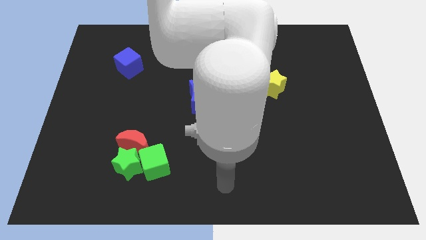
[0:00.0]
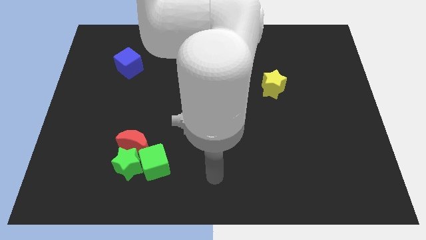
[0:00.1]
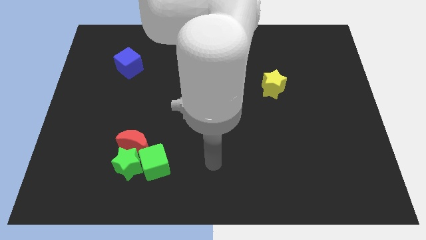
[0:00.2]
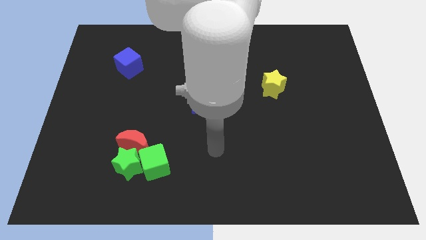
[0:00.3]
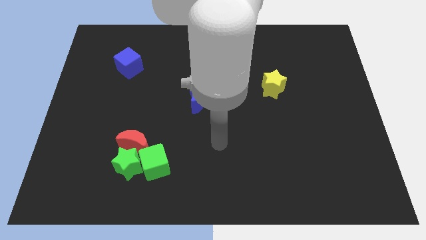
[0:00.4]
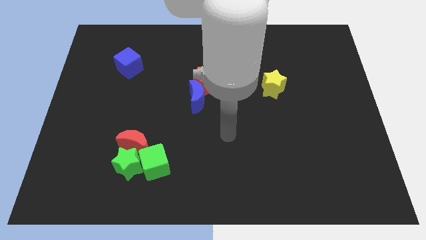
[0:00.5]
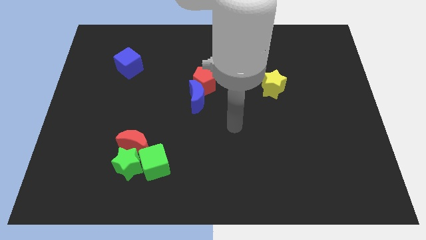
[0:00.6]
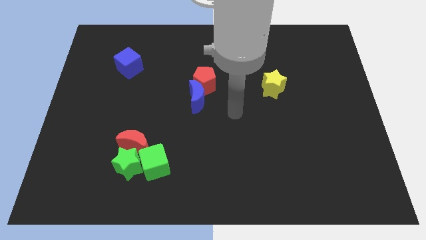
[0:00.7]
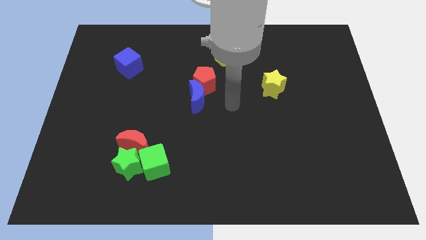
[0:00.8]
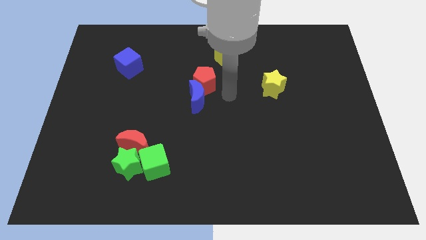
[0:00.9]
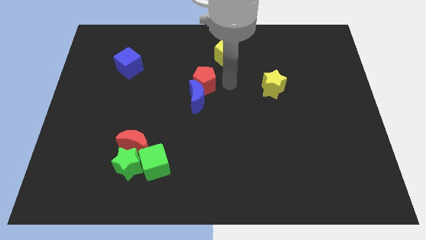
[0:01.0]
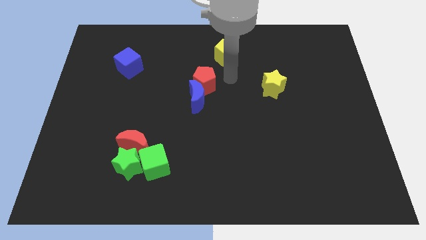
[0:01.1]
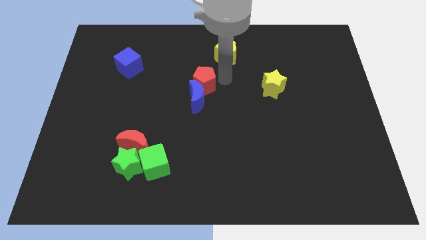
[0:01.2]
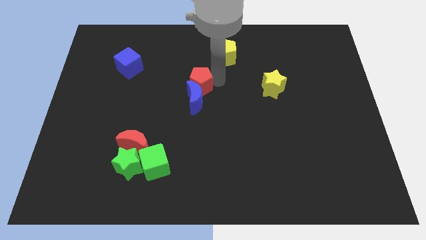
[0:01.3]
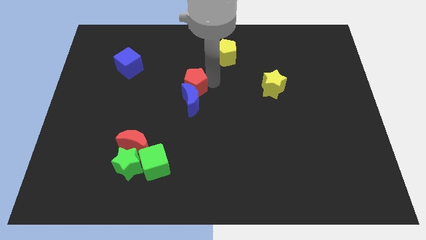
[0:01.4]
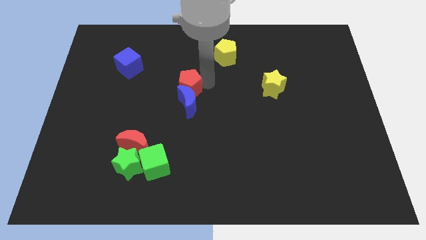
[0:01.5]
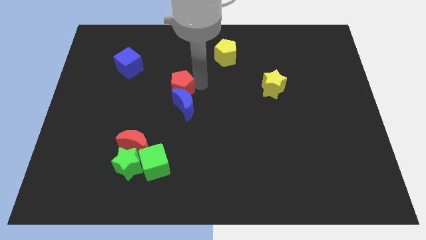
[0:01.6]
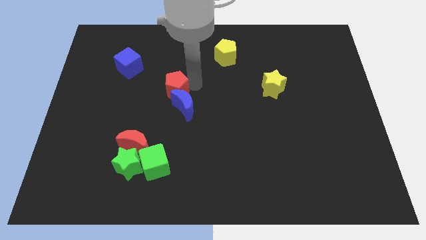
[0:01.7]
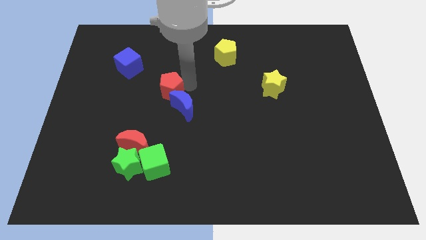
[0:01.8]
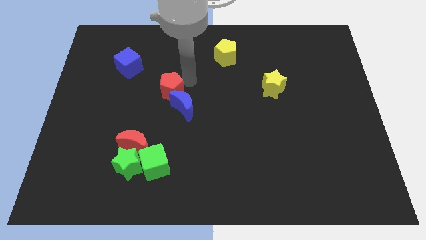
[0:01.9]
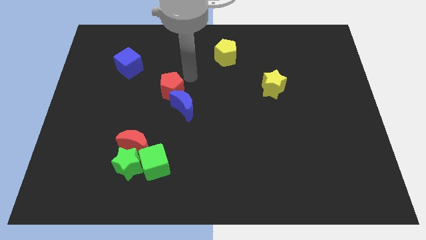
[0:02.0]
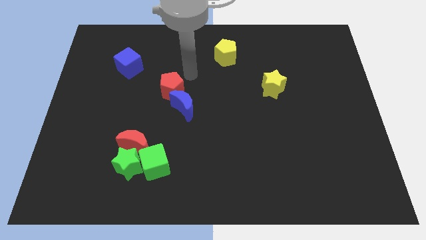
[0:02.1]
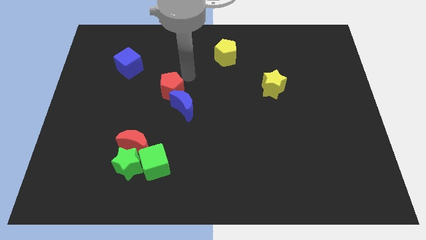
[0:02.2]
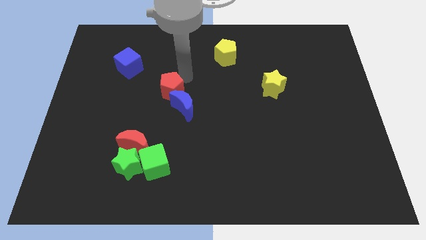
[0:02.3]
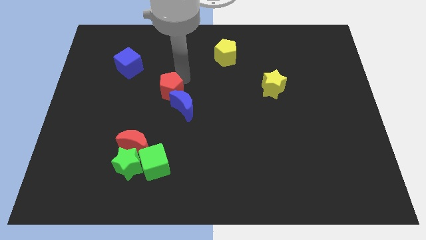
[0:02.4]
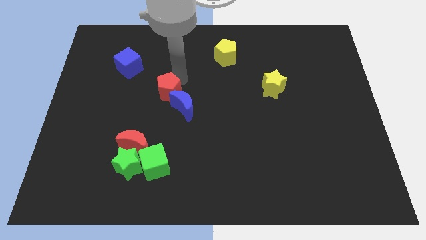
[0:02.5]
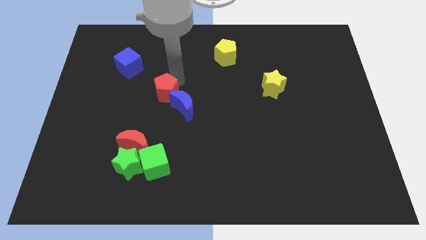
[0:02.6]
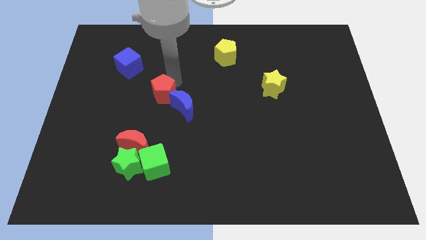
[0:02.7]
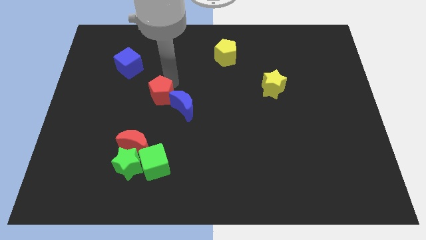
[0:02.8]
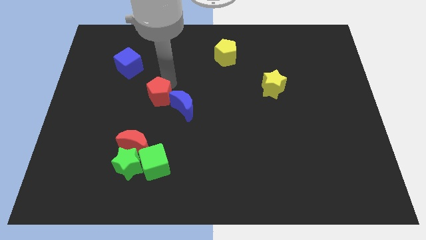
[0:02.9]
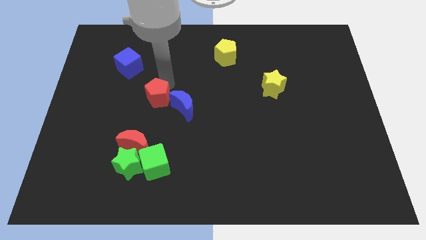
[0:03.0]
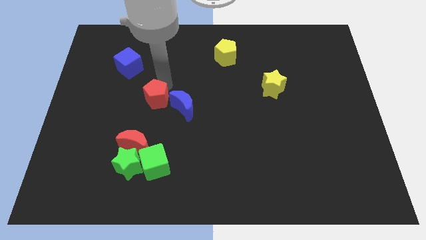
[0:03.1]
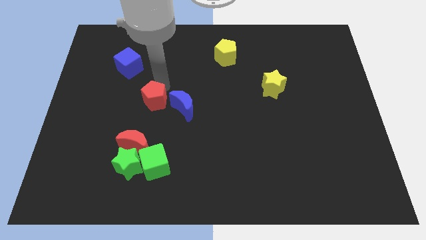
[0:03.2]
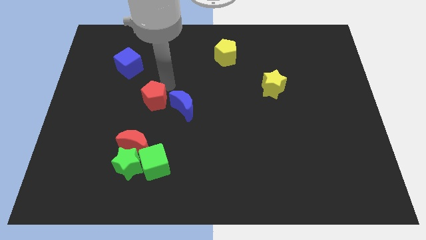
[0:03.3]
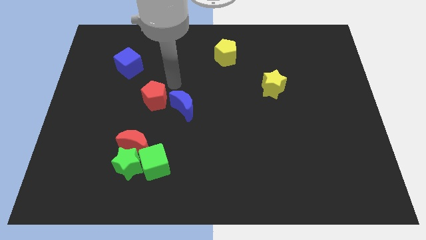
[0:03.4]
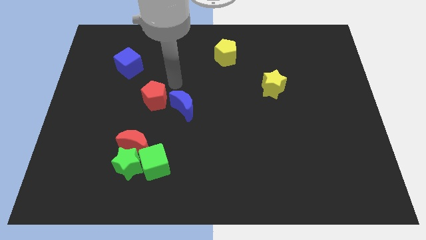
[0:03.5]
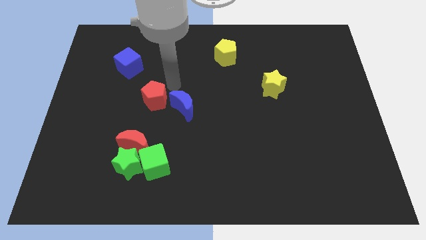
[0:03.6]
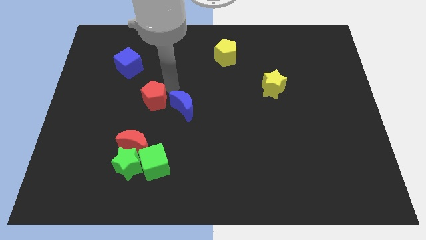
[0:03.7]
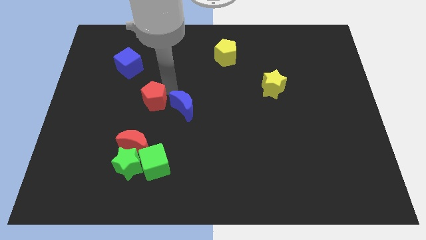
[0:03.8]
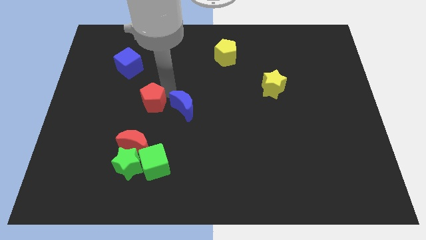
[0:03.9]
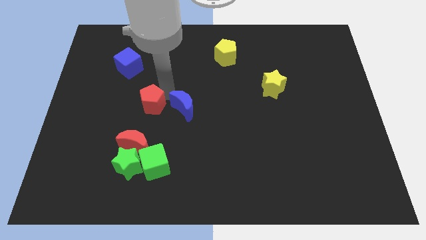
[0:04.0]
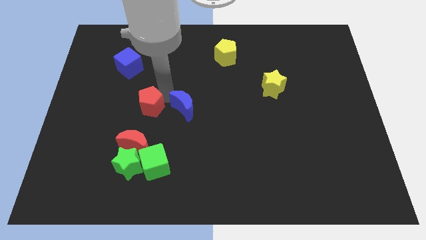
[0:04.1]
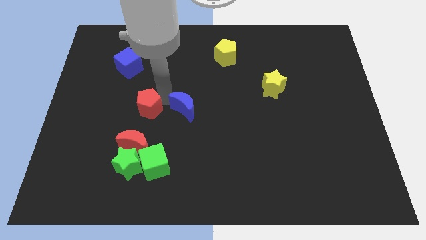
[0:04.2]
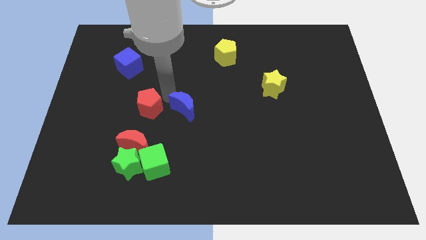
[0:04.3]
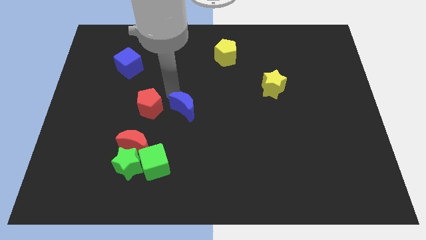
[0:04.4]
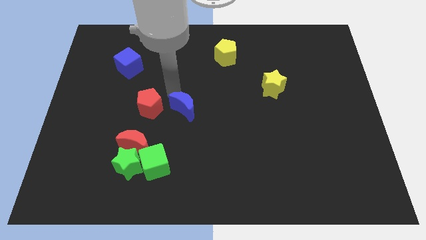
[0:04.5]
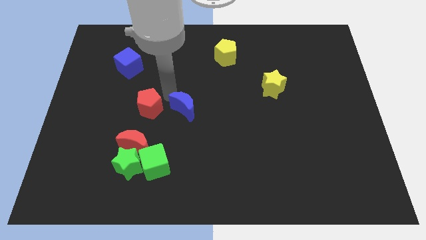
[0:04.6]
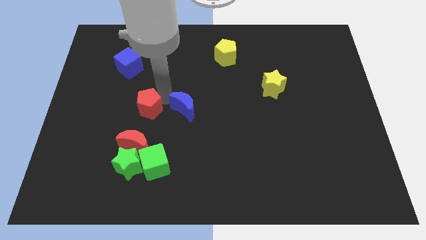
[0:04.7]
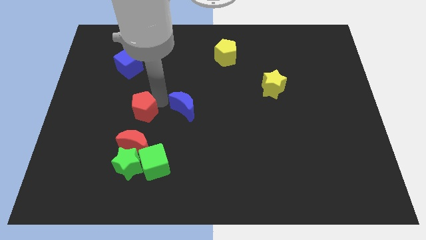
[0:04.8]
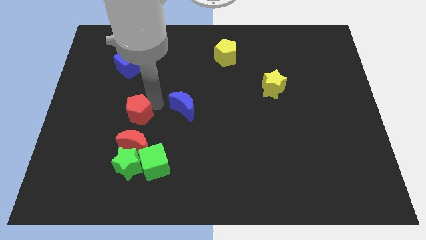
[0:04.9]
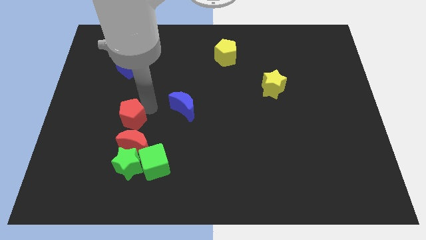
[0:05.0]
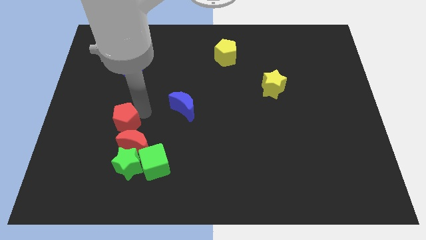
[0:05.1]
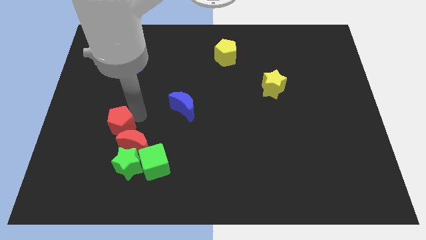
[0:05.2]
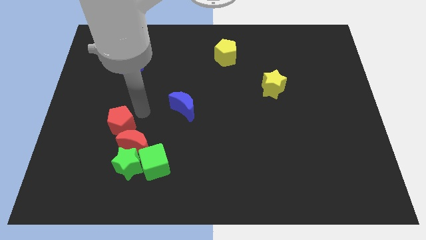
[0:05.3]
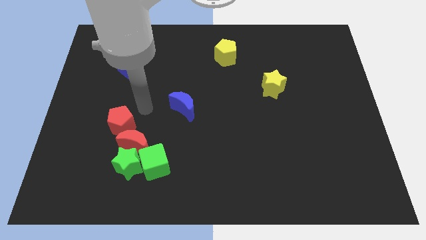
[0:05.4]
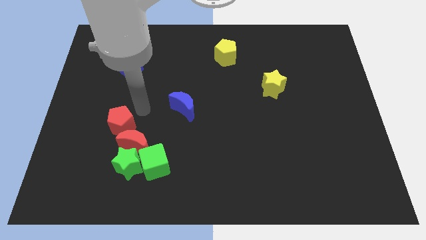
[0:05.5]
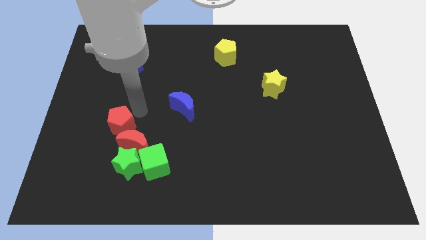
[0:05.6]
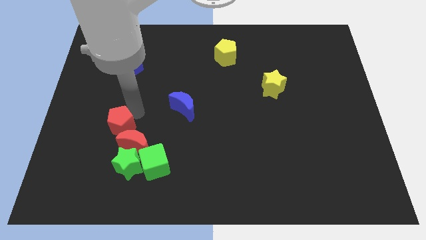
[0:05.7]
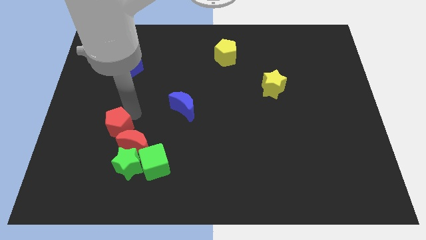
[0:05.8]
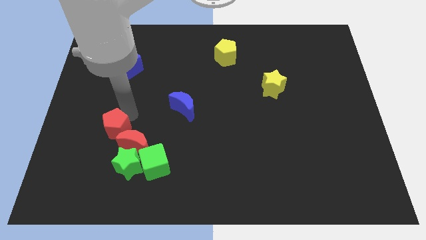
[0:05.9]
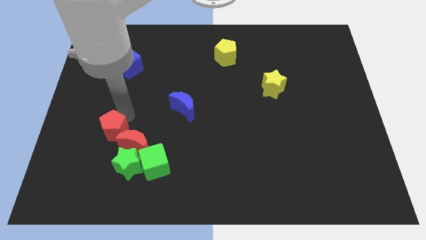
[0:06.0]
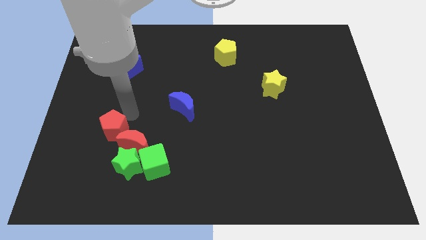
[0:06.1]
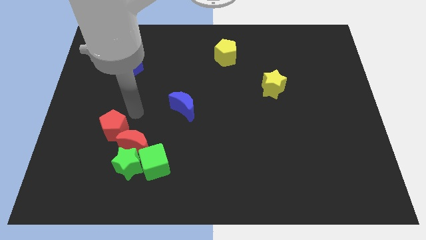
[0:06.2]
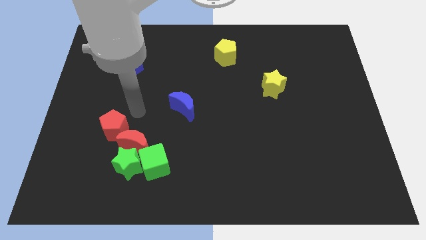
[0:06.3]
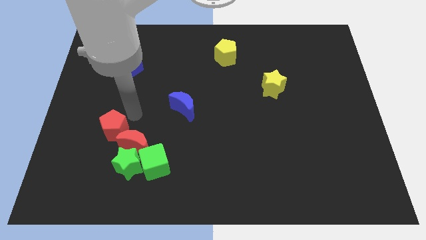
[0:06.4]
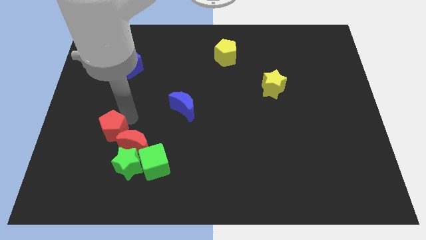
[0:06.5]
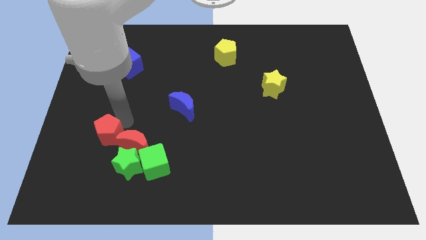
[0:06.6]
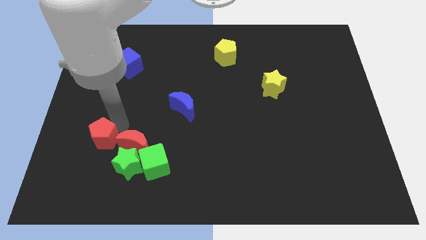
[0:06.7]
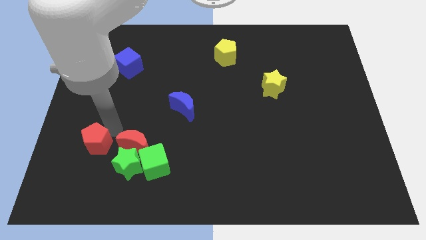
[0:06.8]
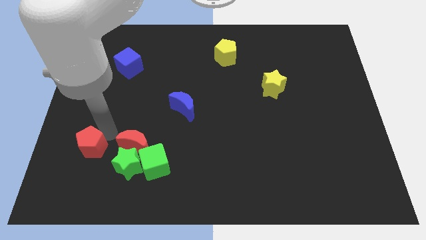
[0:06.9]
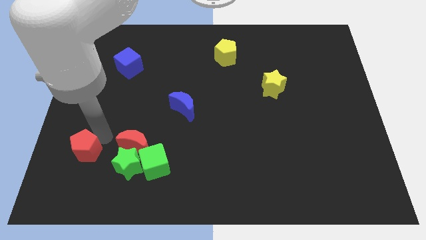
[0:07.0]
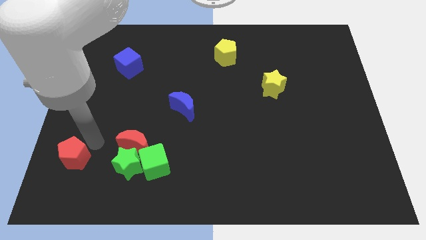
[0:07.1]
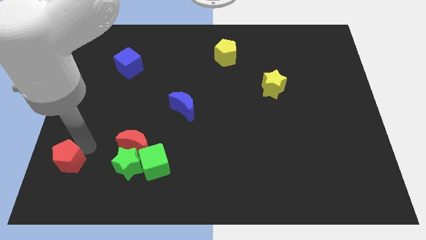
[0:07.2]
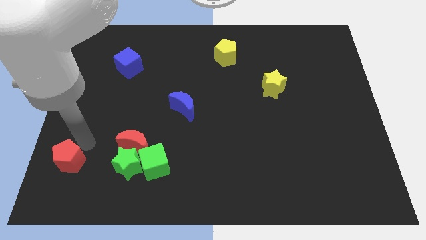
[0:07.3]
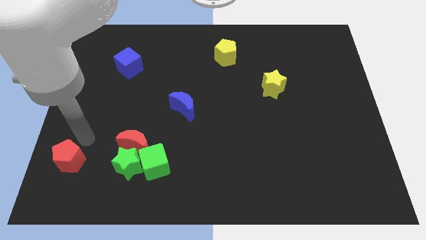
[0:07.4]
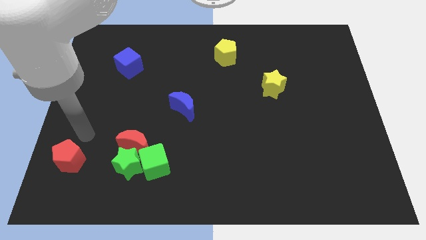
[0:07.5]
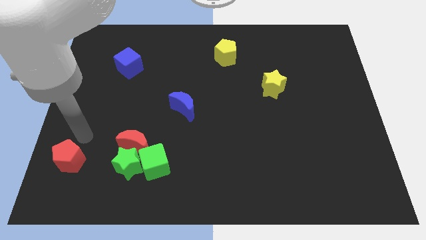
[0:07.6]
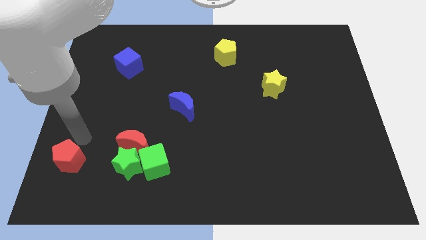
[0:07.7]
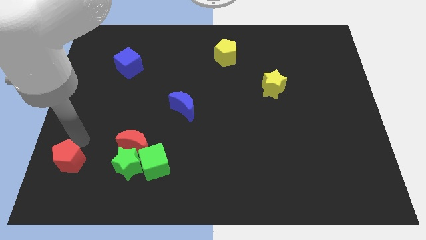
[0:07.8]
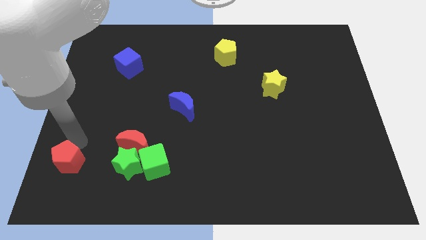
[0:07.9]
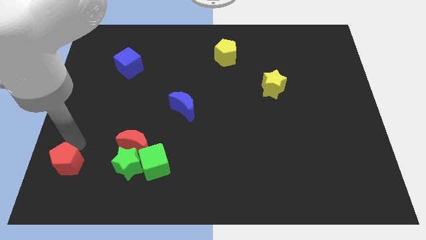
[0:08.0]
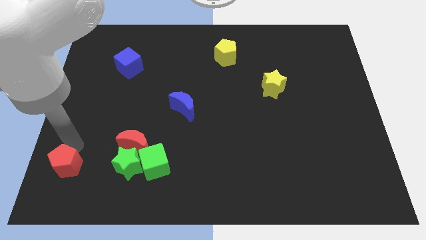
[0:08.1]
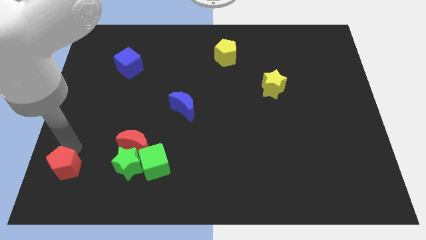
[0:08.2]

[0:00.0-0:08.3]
slide the red pentagon to the lower left corner
